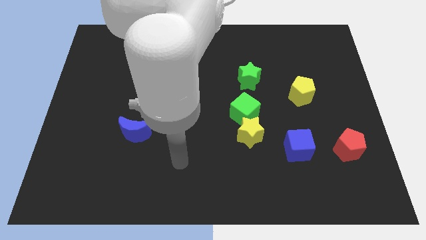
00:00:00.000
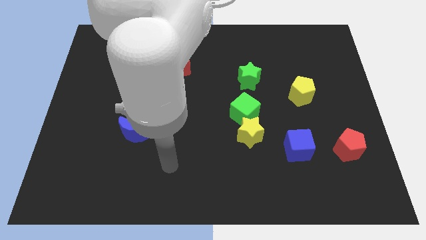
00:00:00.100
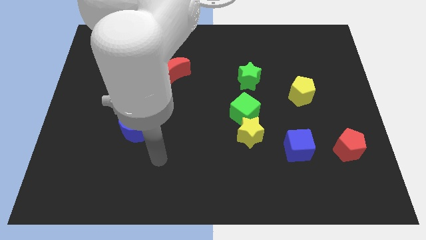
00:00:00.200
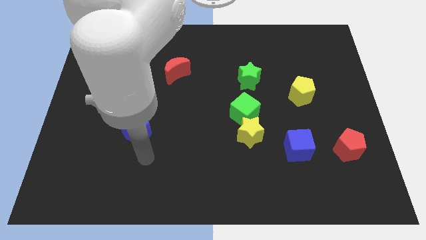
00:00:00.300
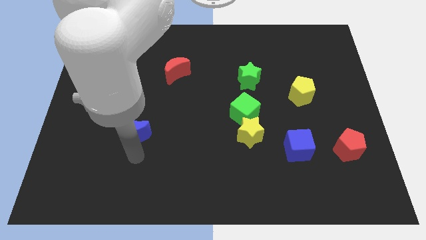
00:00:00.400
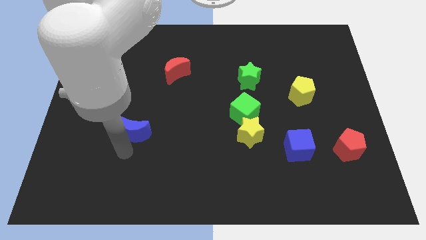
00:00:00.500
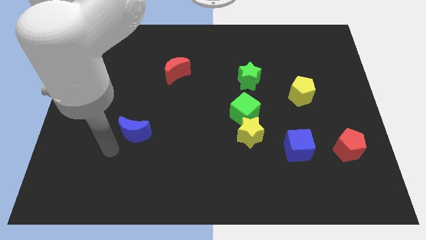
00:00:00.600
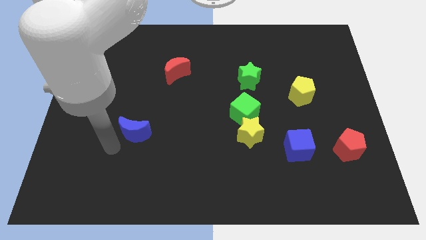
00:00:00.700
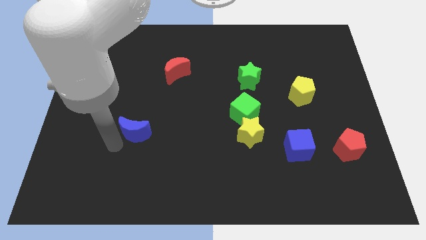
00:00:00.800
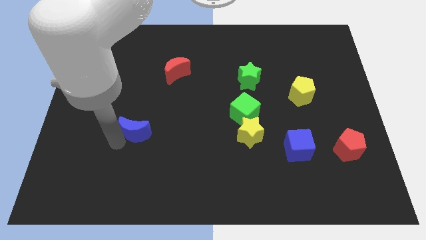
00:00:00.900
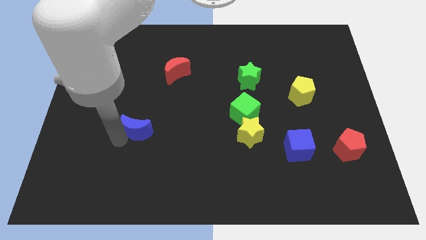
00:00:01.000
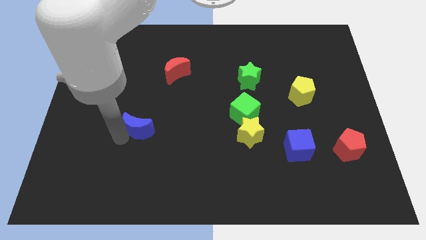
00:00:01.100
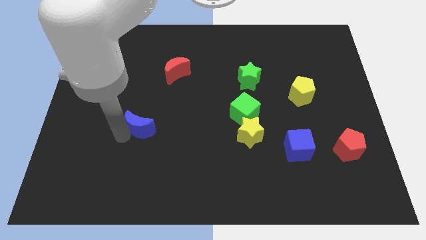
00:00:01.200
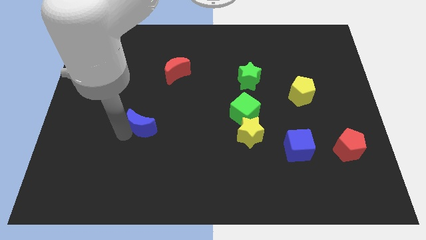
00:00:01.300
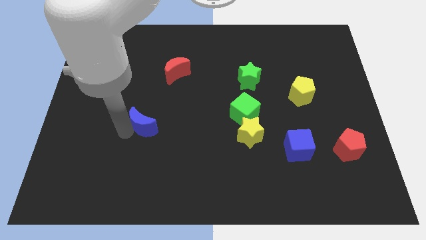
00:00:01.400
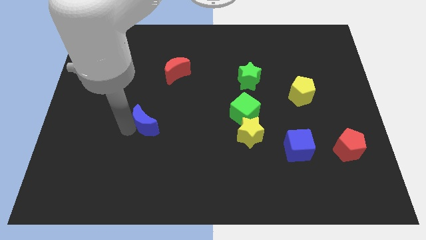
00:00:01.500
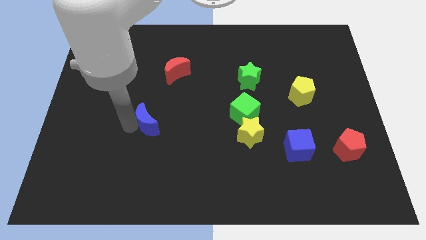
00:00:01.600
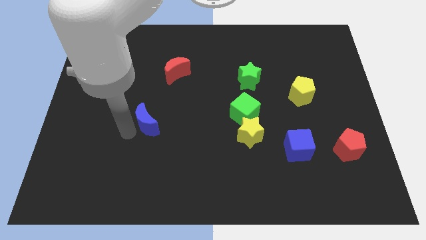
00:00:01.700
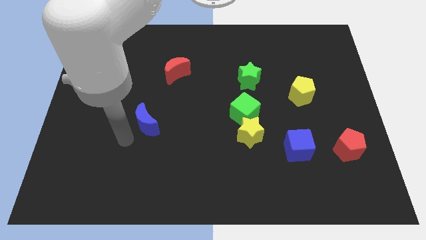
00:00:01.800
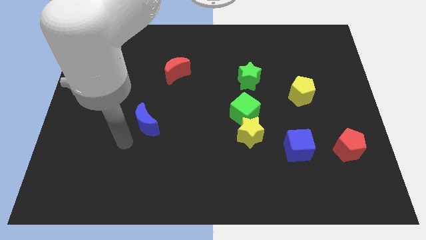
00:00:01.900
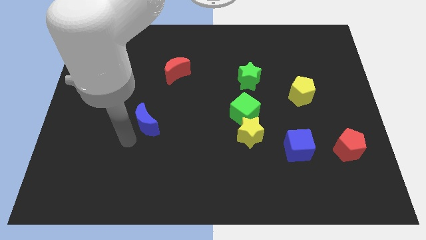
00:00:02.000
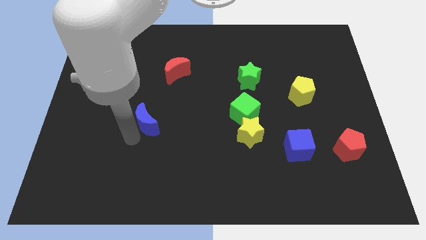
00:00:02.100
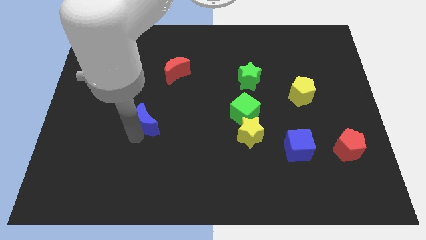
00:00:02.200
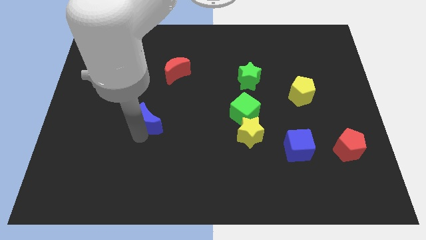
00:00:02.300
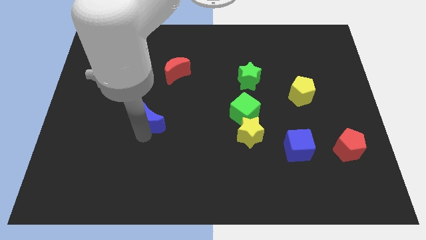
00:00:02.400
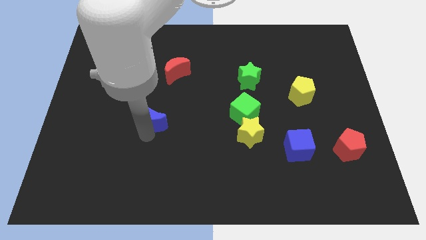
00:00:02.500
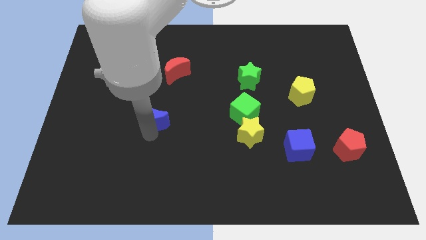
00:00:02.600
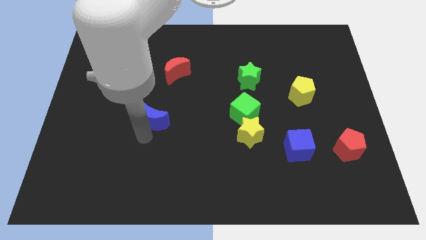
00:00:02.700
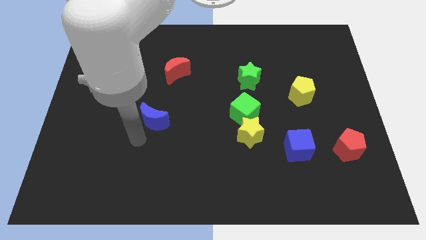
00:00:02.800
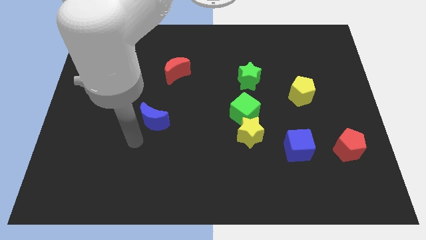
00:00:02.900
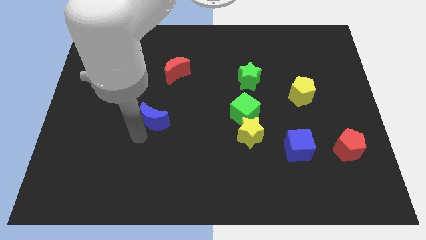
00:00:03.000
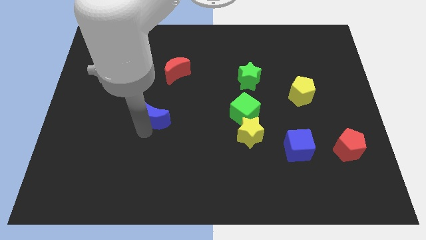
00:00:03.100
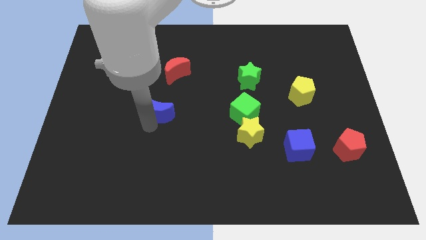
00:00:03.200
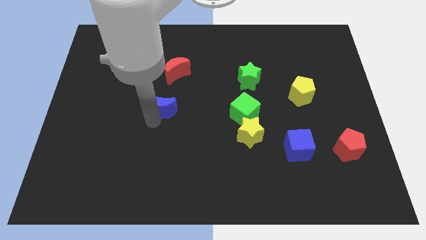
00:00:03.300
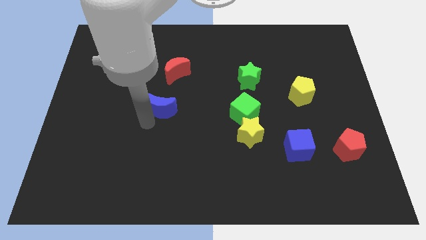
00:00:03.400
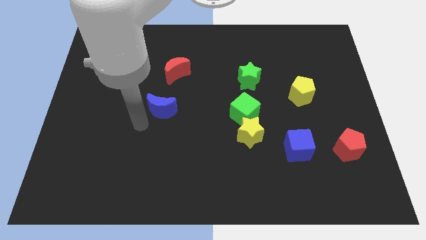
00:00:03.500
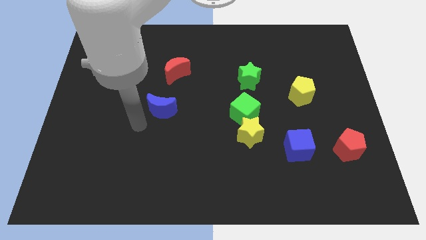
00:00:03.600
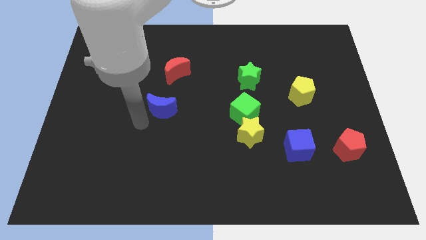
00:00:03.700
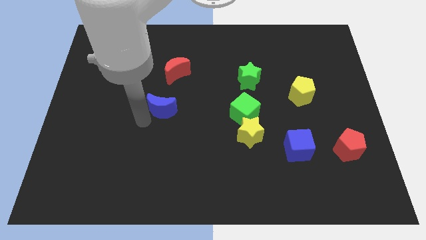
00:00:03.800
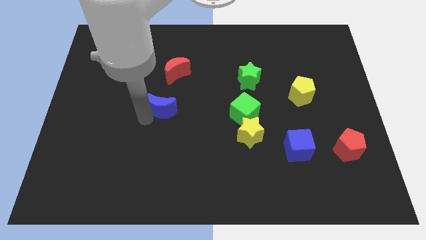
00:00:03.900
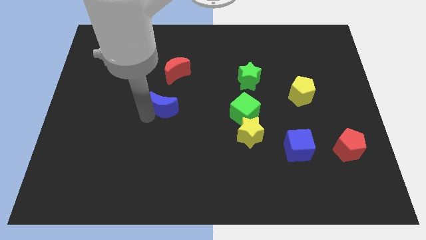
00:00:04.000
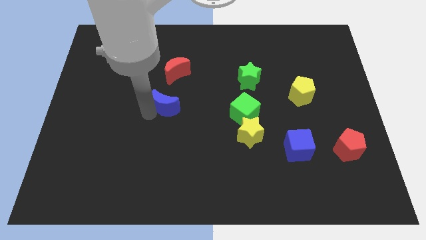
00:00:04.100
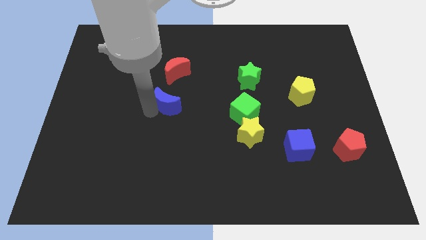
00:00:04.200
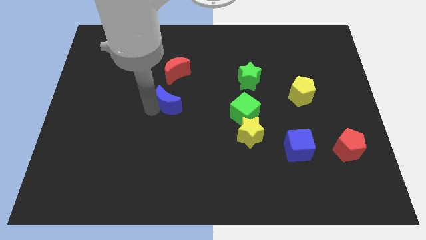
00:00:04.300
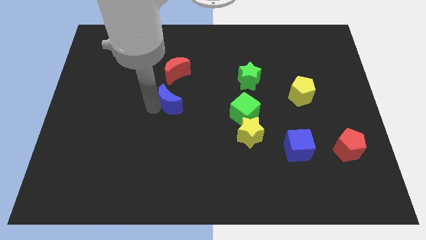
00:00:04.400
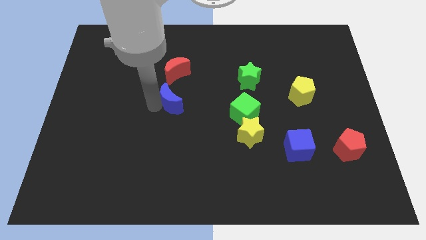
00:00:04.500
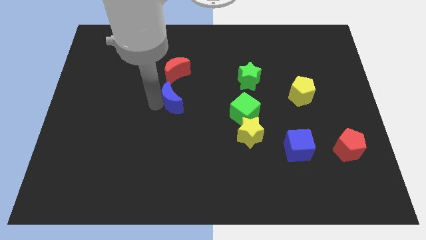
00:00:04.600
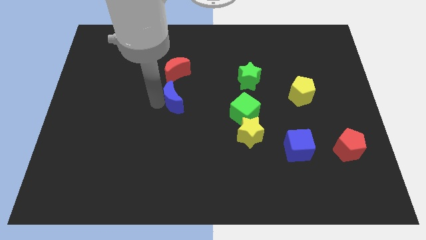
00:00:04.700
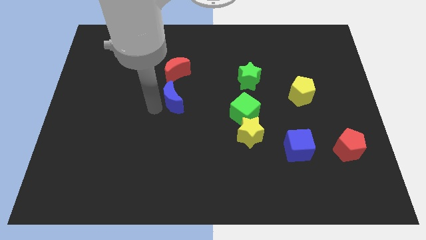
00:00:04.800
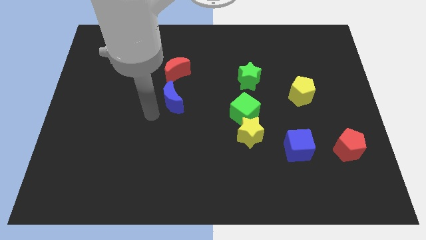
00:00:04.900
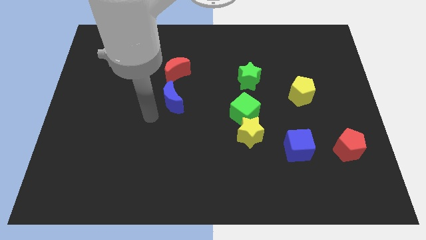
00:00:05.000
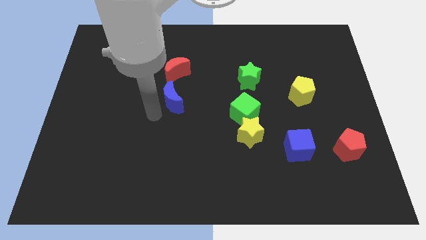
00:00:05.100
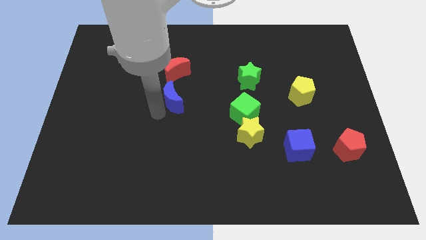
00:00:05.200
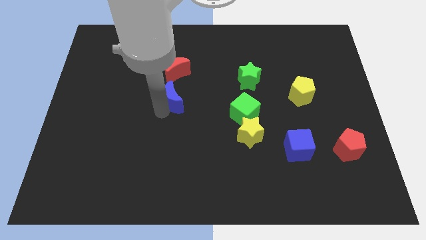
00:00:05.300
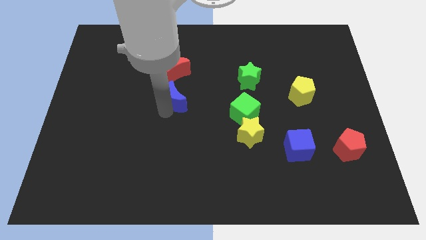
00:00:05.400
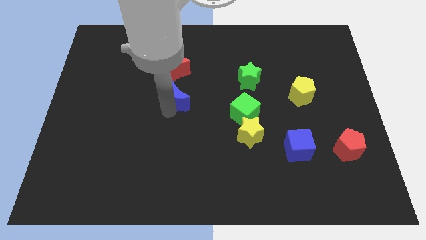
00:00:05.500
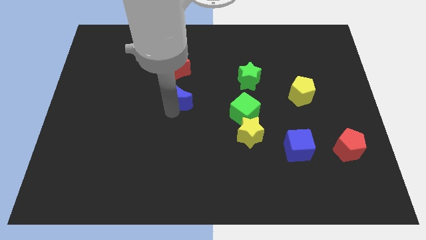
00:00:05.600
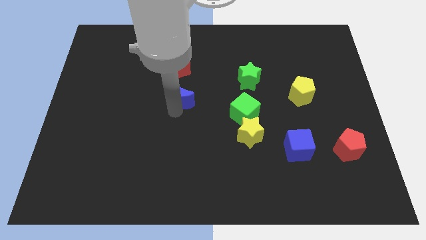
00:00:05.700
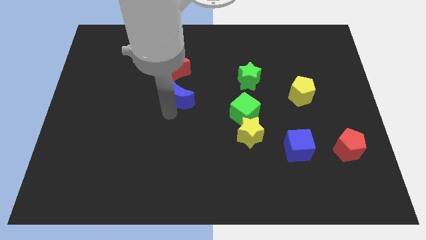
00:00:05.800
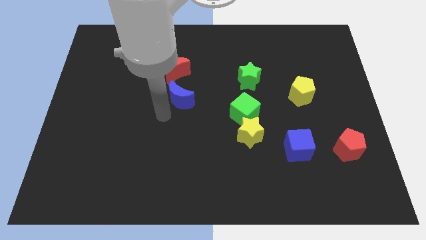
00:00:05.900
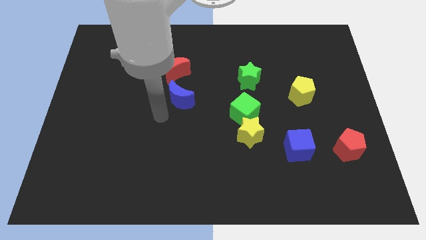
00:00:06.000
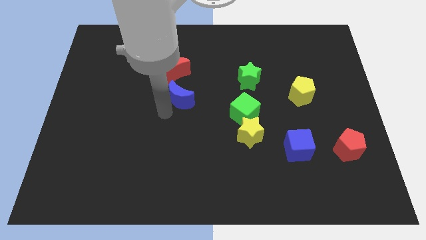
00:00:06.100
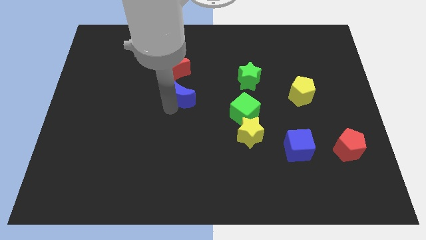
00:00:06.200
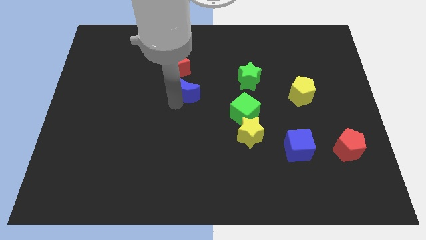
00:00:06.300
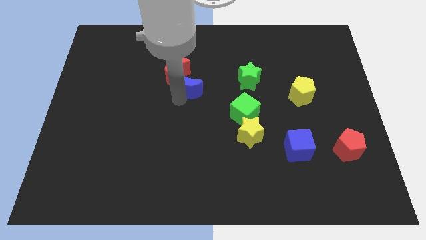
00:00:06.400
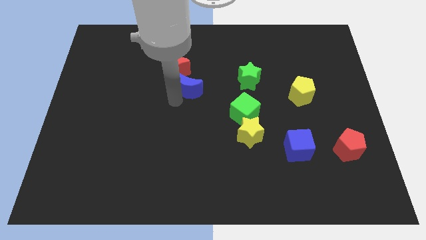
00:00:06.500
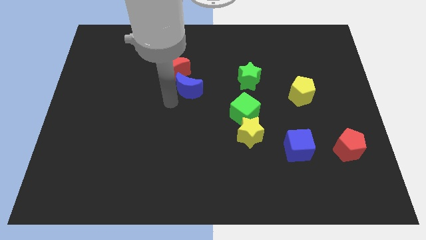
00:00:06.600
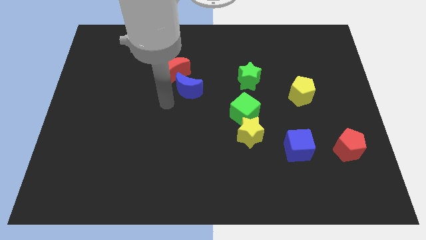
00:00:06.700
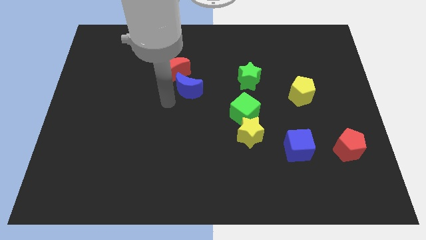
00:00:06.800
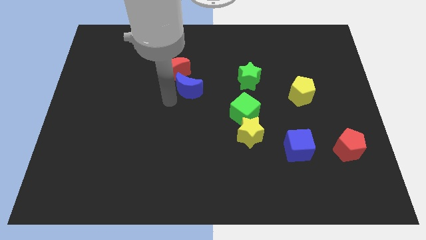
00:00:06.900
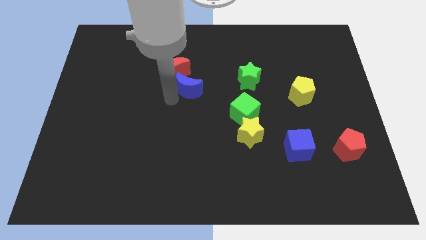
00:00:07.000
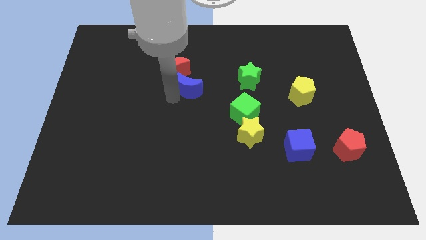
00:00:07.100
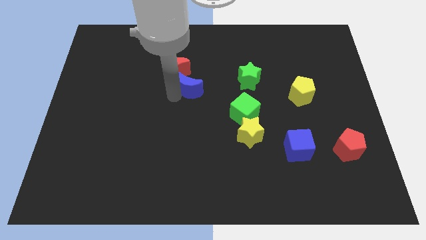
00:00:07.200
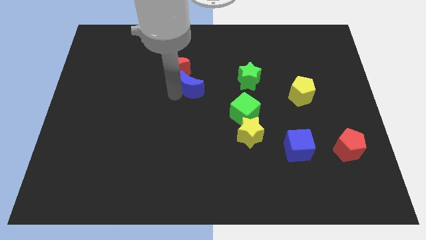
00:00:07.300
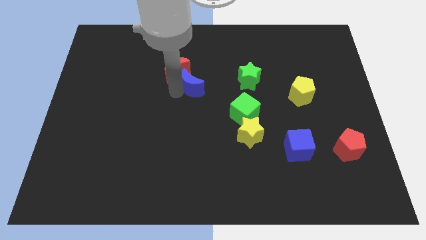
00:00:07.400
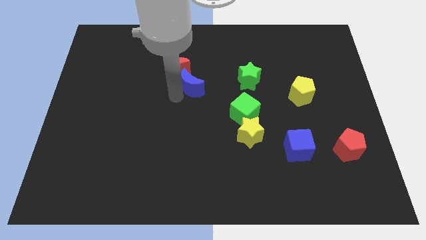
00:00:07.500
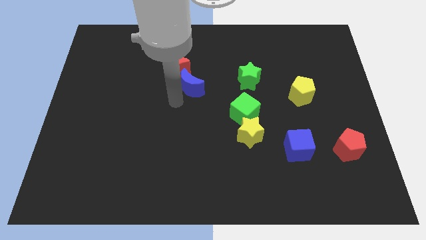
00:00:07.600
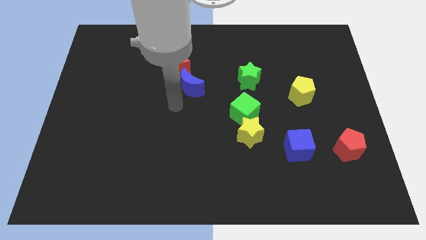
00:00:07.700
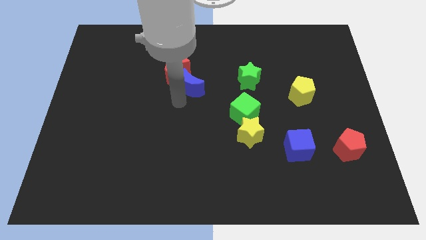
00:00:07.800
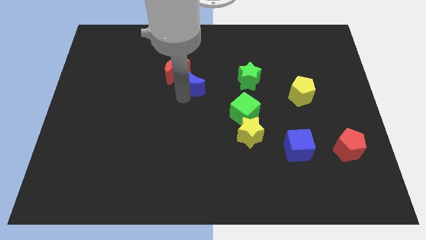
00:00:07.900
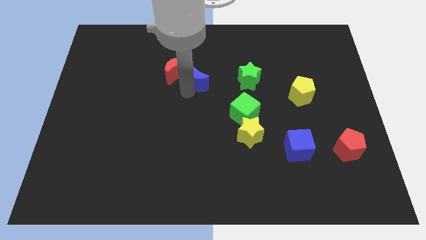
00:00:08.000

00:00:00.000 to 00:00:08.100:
move the blue moon up and right
